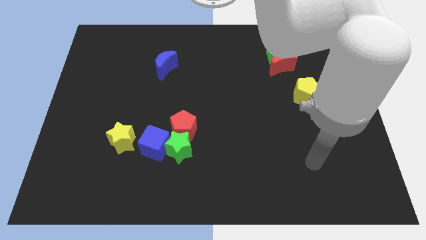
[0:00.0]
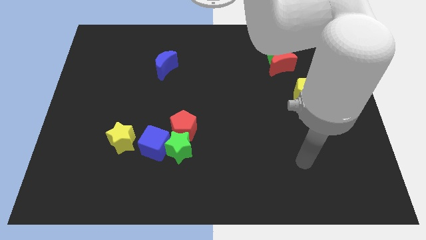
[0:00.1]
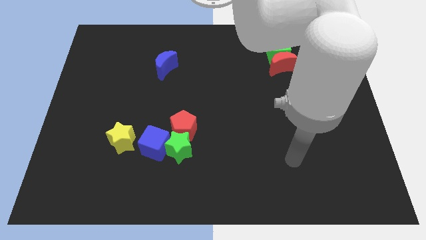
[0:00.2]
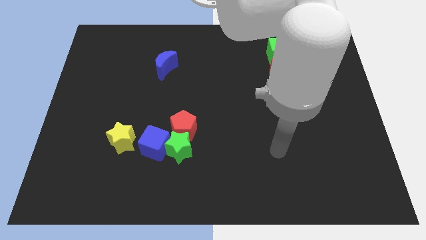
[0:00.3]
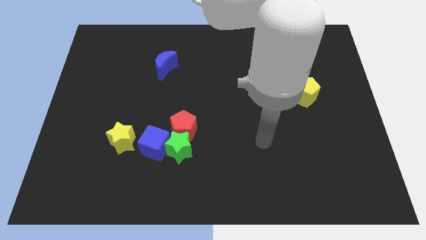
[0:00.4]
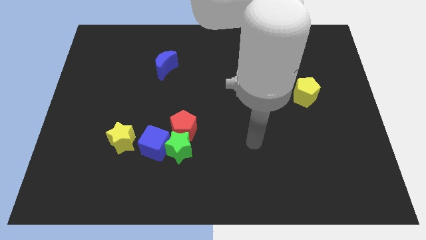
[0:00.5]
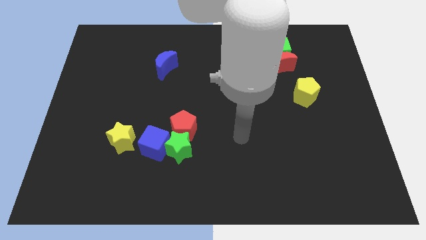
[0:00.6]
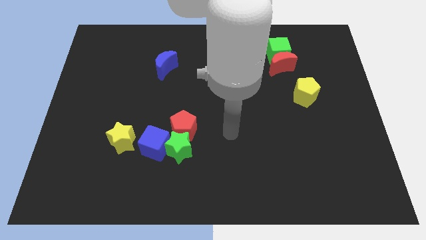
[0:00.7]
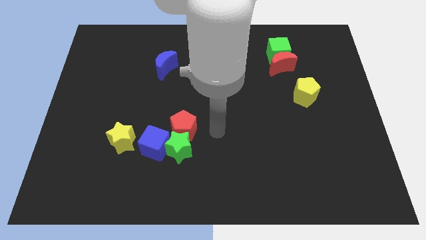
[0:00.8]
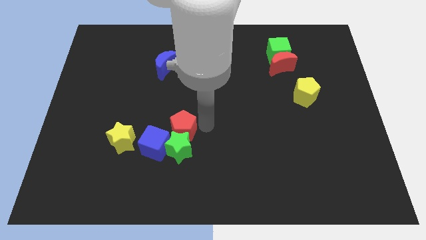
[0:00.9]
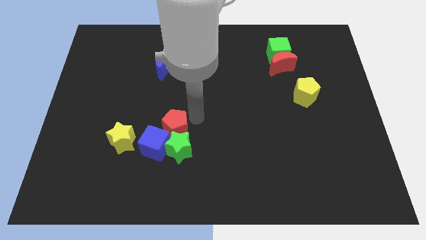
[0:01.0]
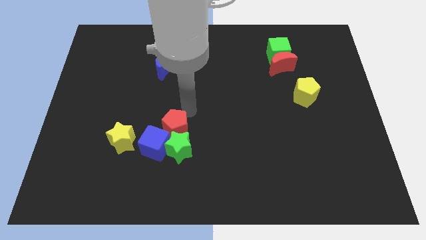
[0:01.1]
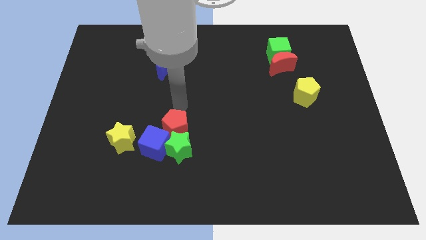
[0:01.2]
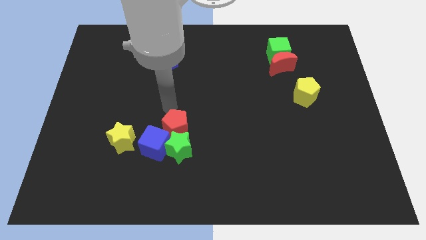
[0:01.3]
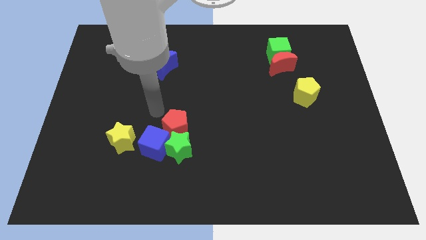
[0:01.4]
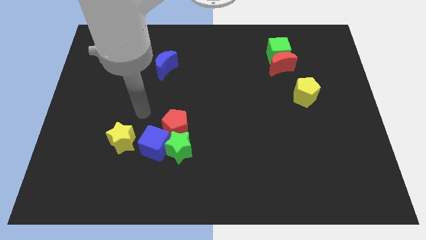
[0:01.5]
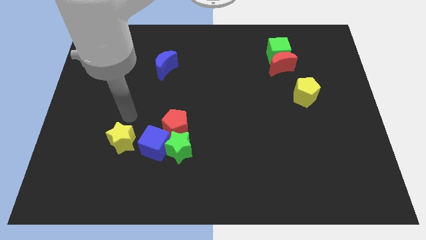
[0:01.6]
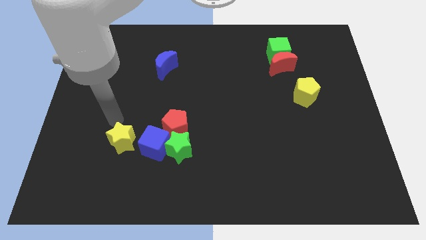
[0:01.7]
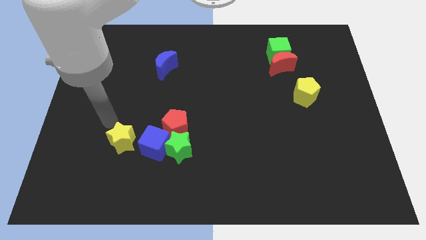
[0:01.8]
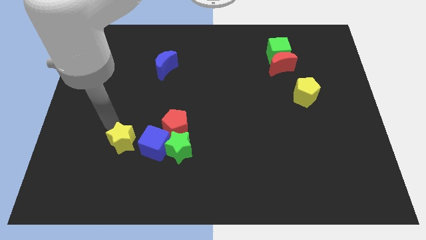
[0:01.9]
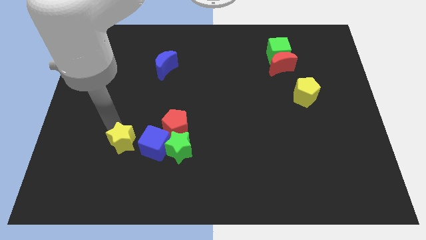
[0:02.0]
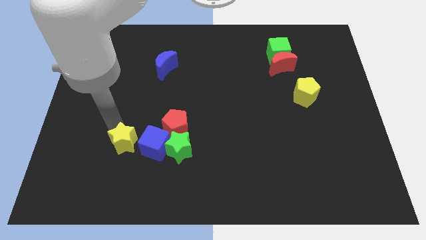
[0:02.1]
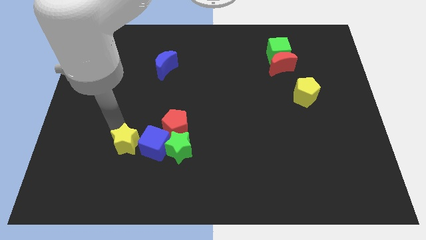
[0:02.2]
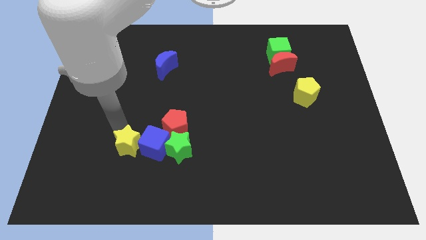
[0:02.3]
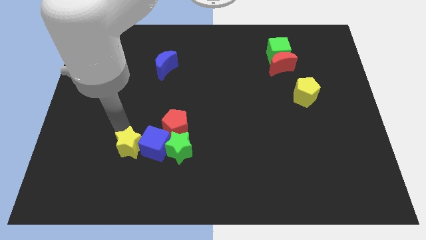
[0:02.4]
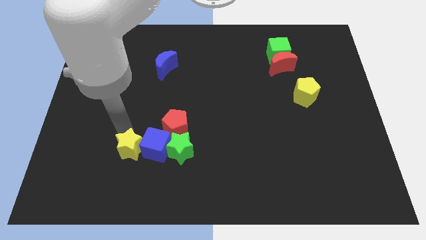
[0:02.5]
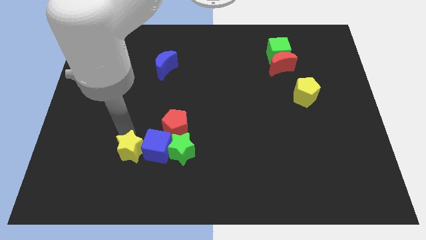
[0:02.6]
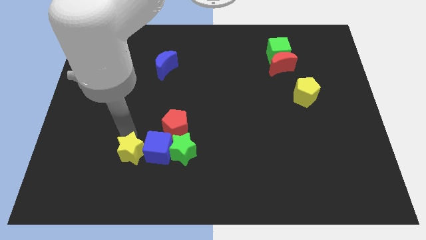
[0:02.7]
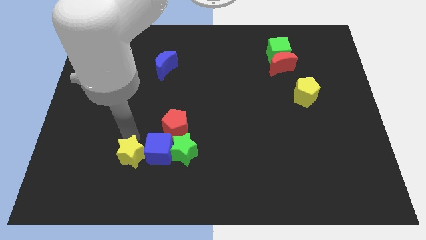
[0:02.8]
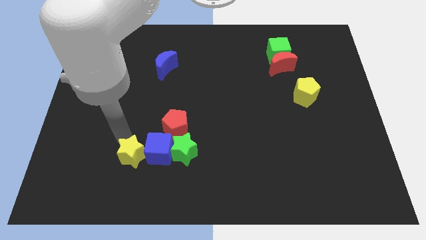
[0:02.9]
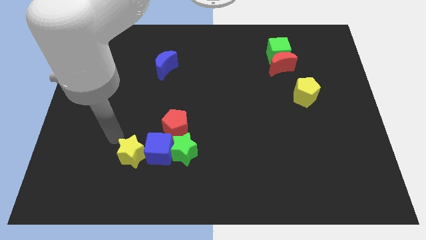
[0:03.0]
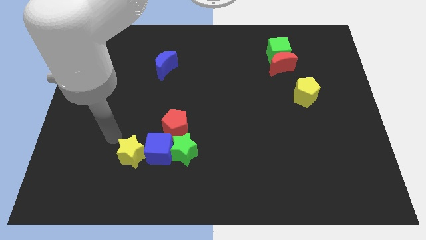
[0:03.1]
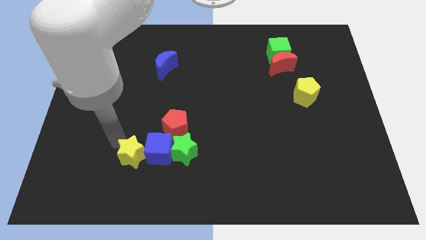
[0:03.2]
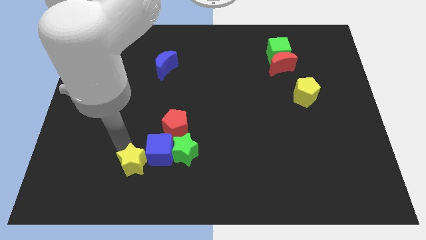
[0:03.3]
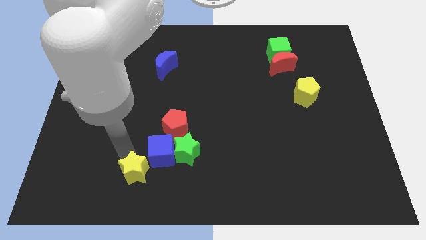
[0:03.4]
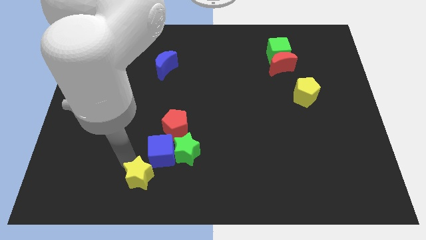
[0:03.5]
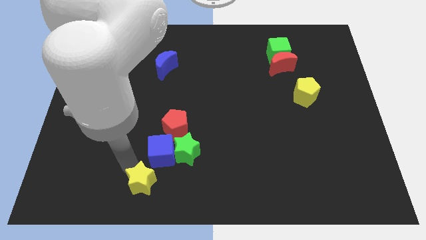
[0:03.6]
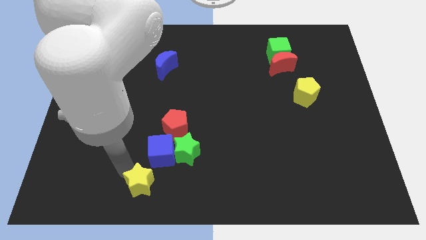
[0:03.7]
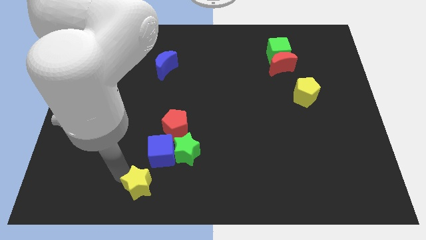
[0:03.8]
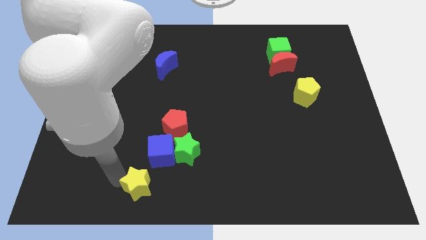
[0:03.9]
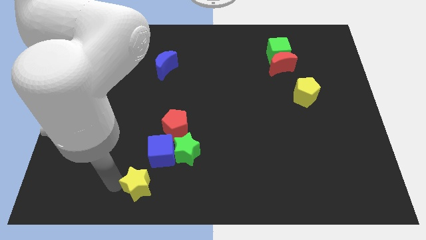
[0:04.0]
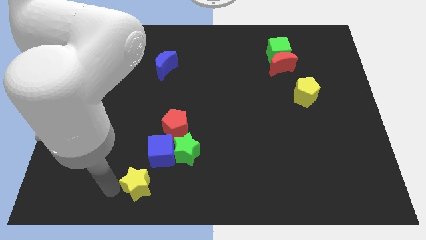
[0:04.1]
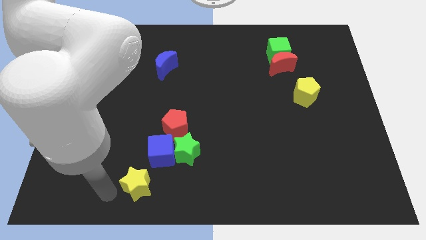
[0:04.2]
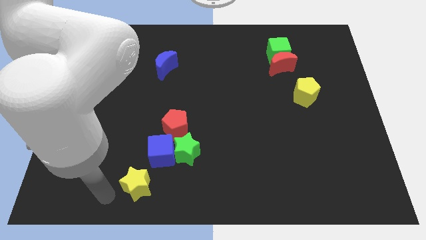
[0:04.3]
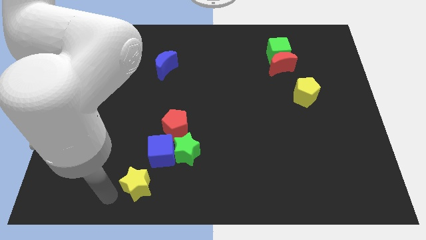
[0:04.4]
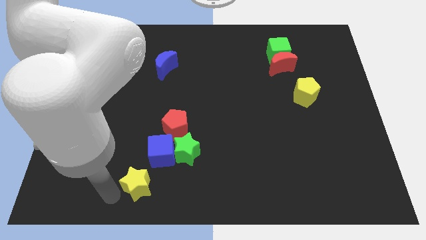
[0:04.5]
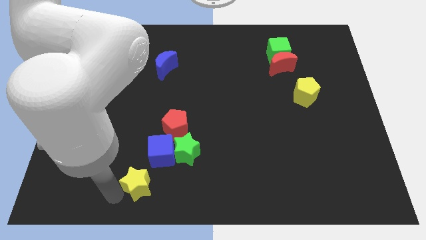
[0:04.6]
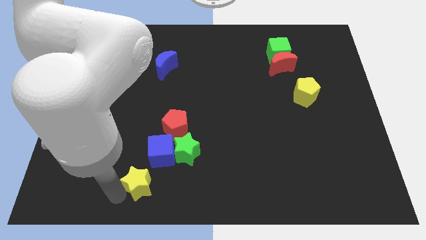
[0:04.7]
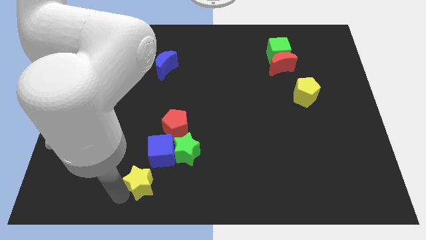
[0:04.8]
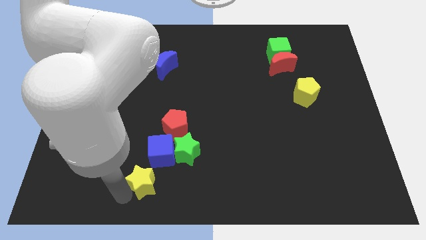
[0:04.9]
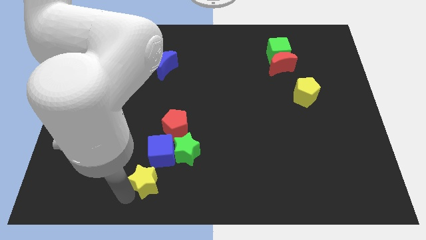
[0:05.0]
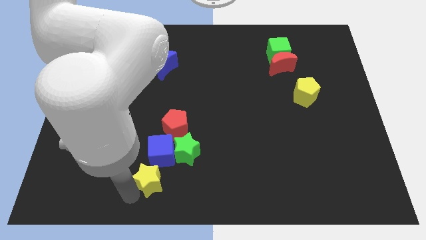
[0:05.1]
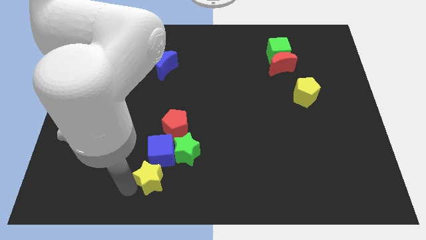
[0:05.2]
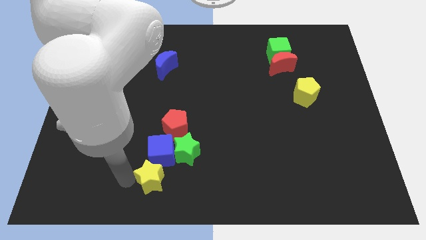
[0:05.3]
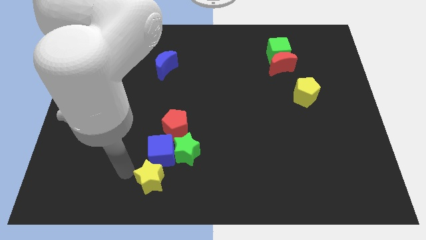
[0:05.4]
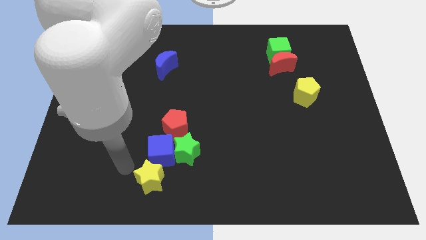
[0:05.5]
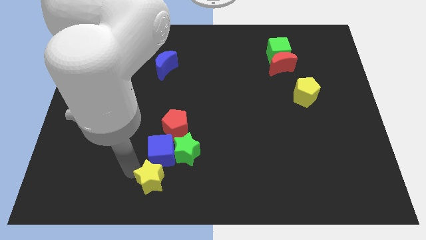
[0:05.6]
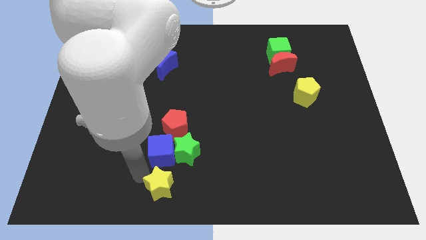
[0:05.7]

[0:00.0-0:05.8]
slide the yellow star to the bottom side
